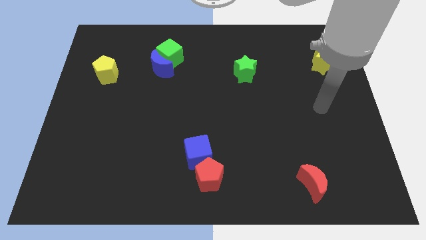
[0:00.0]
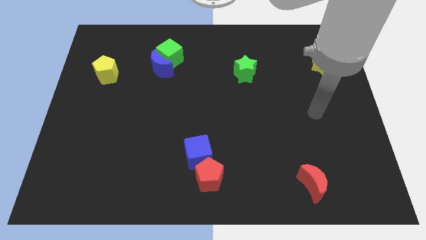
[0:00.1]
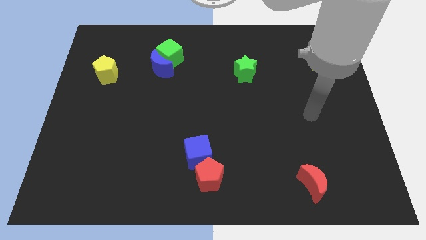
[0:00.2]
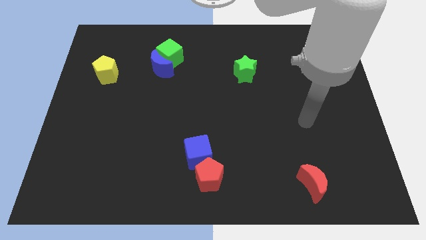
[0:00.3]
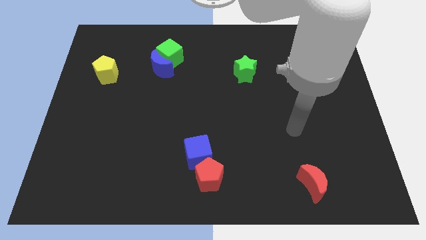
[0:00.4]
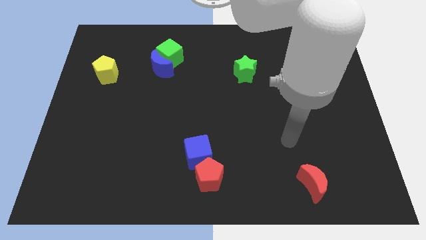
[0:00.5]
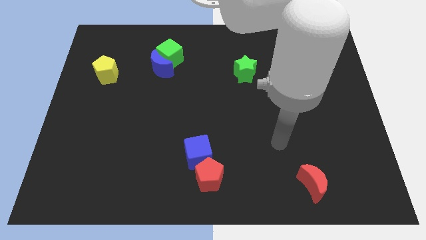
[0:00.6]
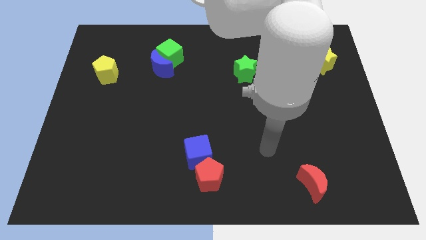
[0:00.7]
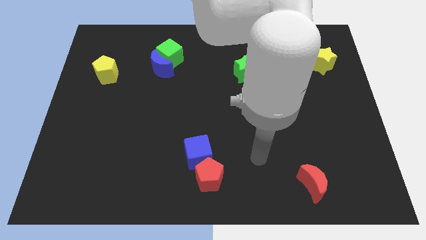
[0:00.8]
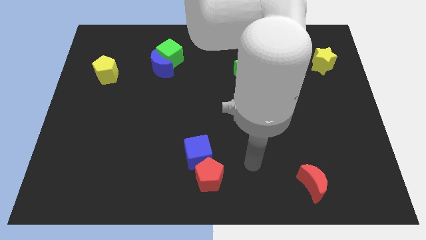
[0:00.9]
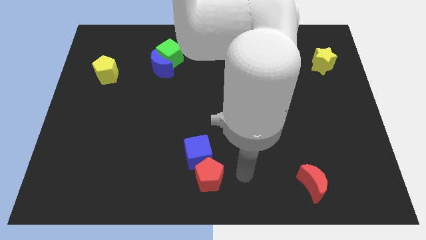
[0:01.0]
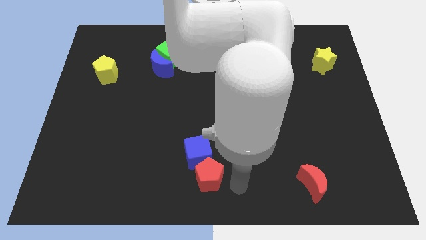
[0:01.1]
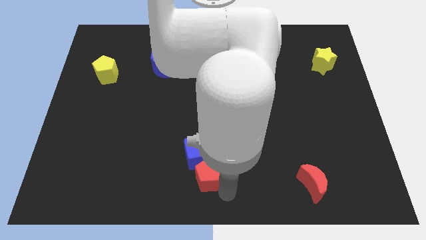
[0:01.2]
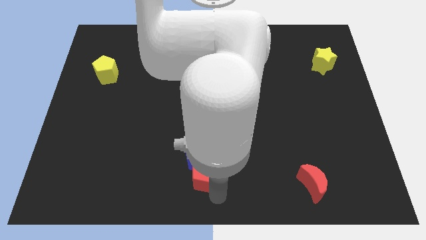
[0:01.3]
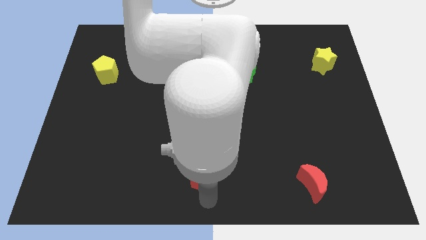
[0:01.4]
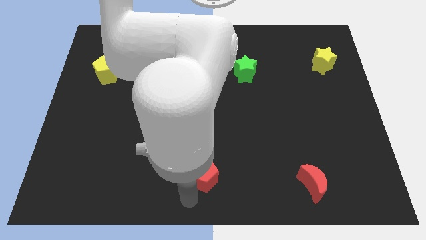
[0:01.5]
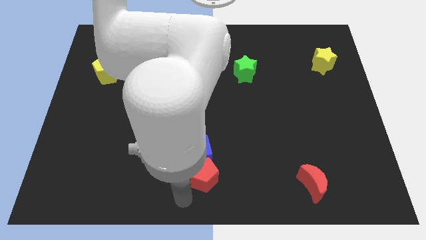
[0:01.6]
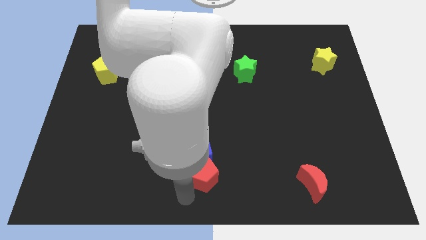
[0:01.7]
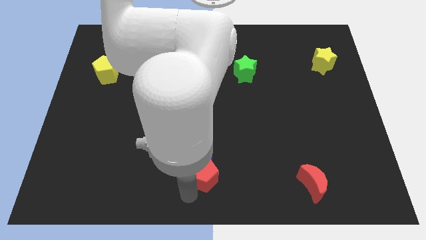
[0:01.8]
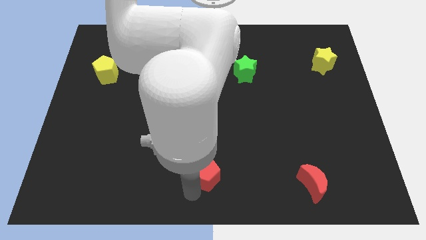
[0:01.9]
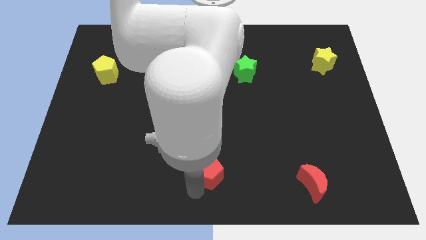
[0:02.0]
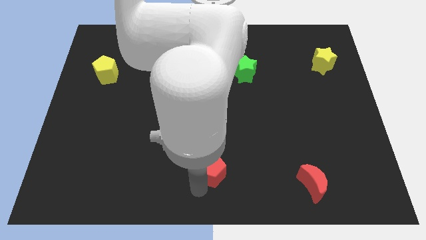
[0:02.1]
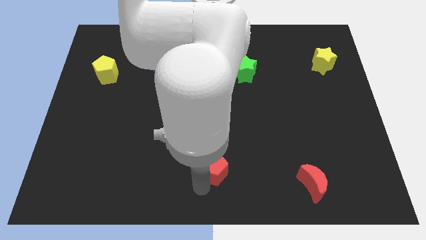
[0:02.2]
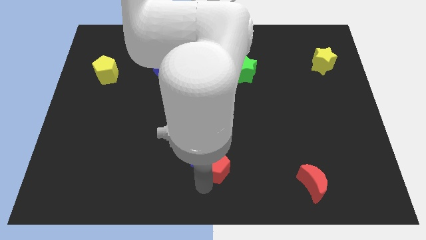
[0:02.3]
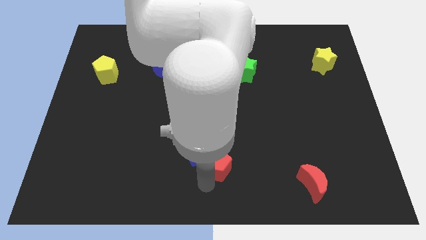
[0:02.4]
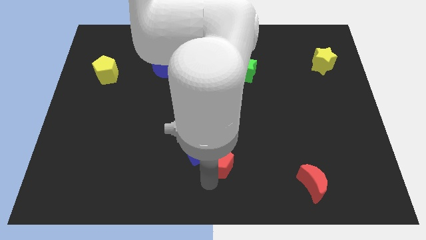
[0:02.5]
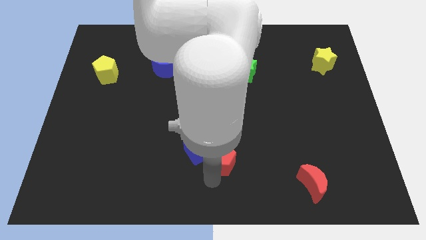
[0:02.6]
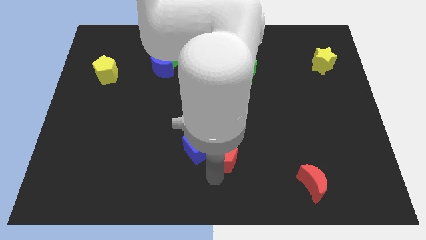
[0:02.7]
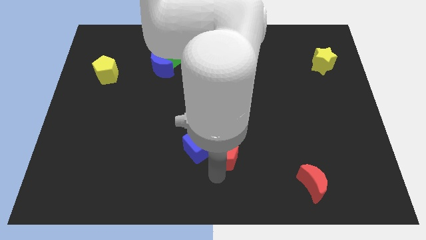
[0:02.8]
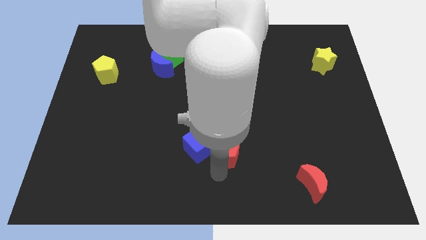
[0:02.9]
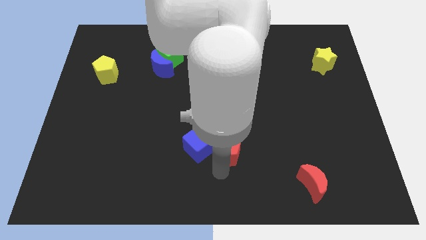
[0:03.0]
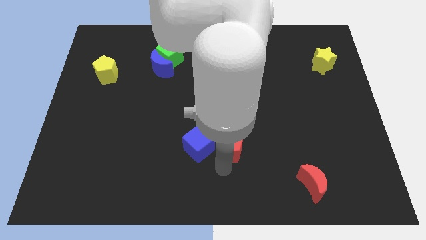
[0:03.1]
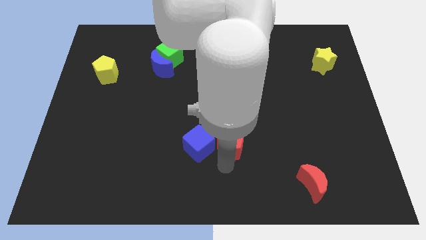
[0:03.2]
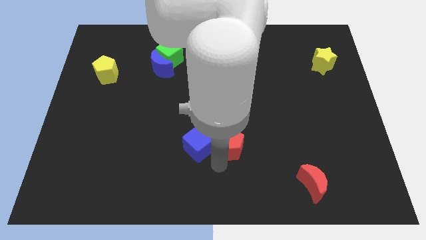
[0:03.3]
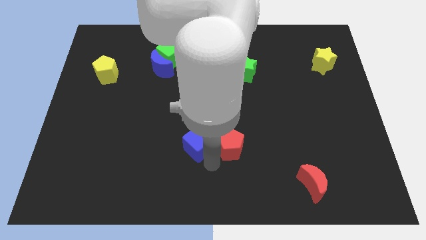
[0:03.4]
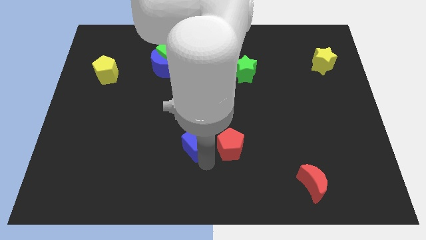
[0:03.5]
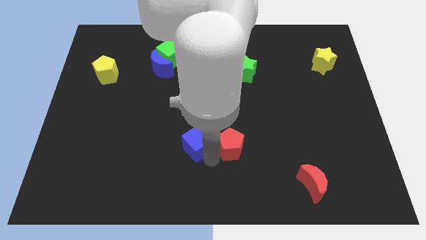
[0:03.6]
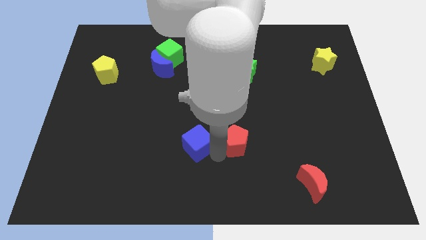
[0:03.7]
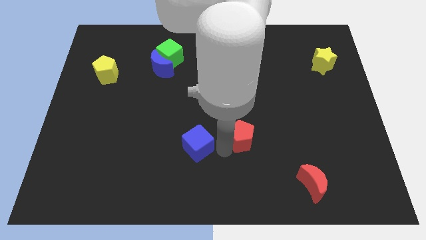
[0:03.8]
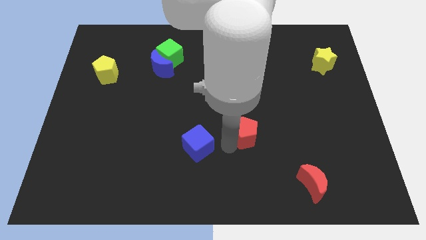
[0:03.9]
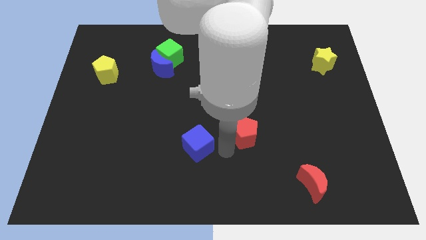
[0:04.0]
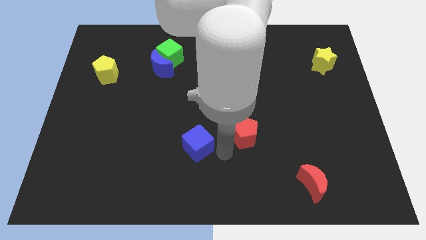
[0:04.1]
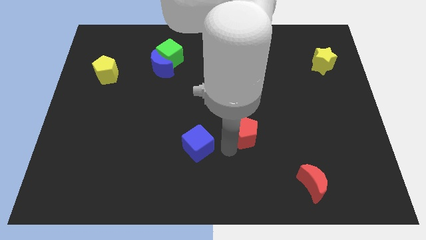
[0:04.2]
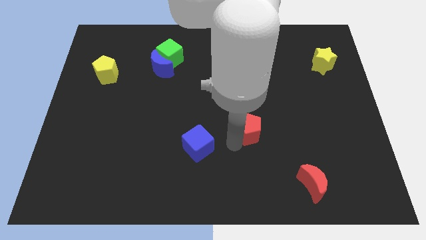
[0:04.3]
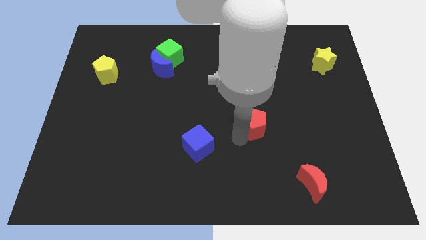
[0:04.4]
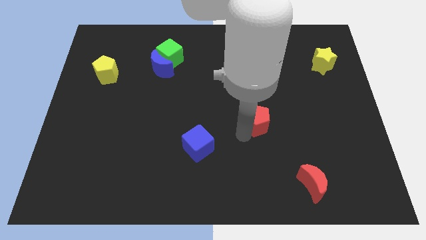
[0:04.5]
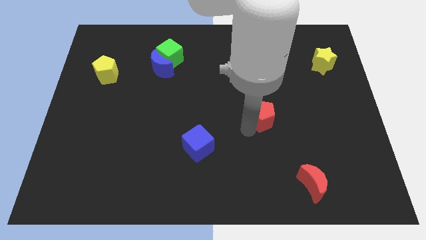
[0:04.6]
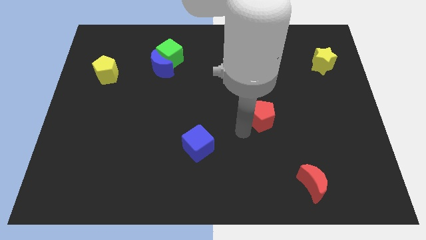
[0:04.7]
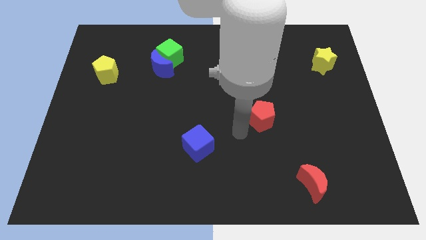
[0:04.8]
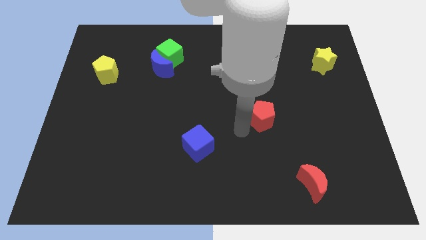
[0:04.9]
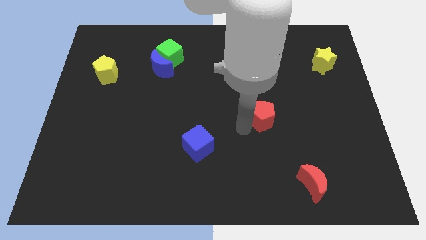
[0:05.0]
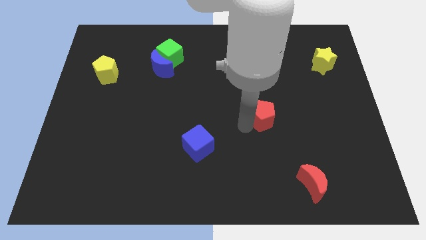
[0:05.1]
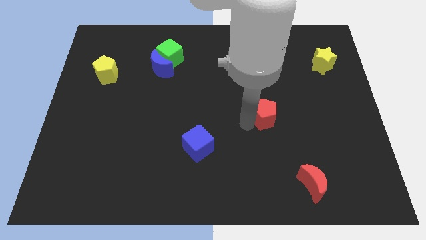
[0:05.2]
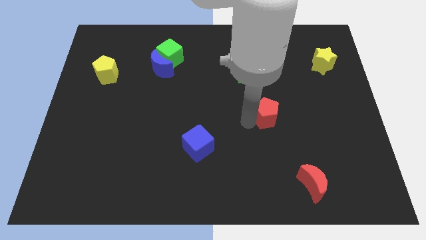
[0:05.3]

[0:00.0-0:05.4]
push the red pentagon upwards and right

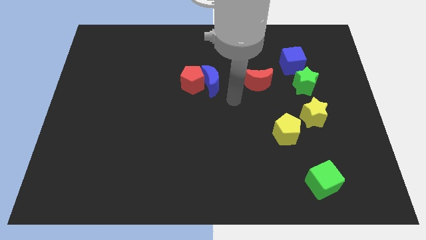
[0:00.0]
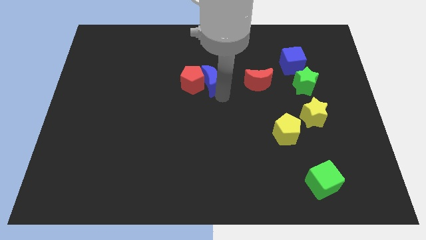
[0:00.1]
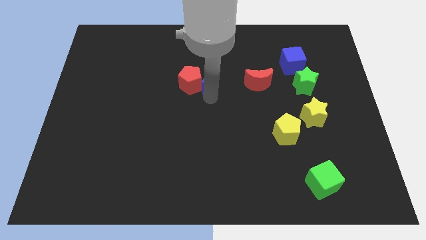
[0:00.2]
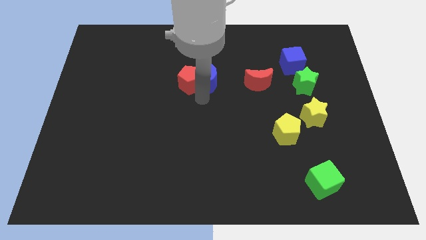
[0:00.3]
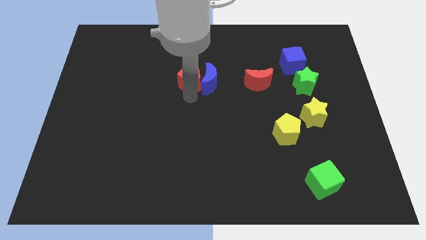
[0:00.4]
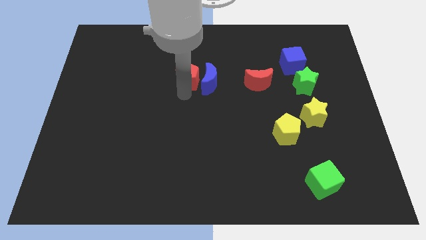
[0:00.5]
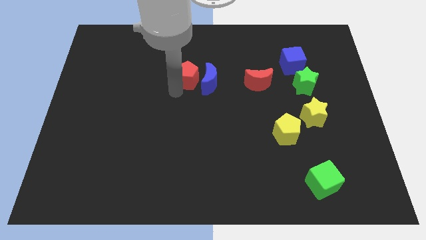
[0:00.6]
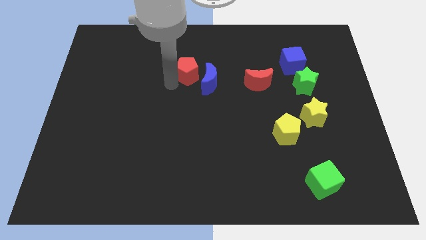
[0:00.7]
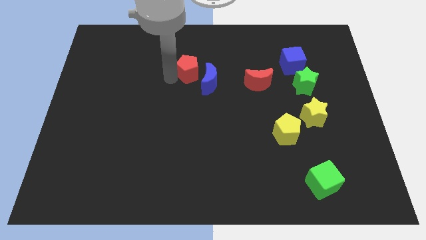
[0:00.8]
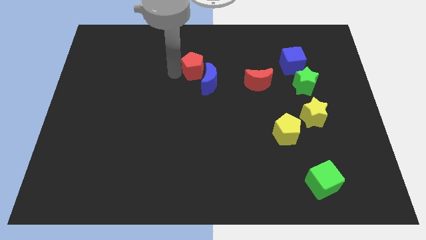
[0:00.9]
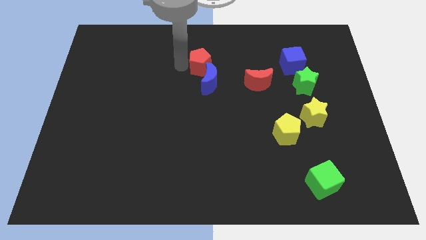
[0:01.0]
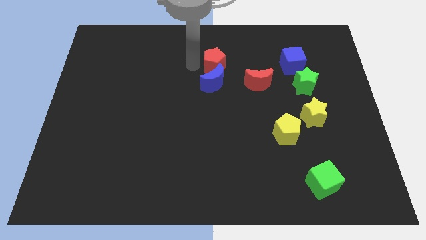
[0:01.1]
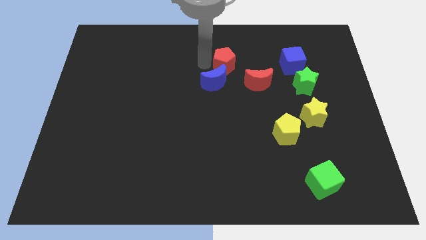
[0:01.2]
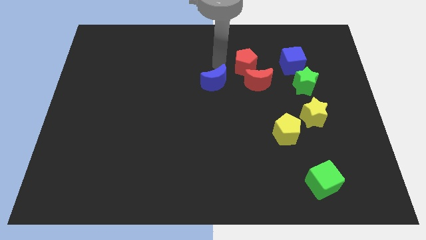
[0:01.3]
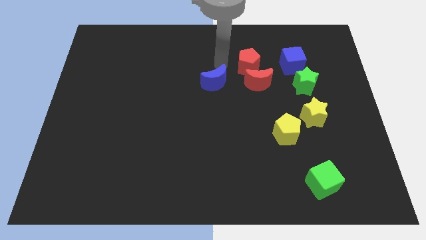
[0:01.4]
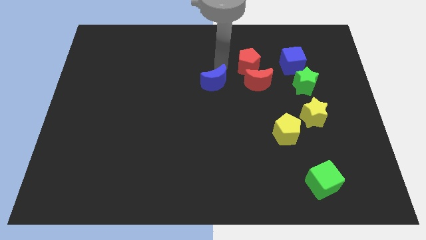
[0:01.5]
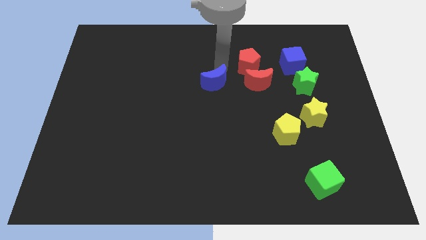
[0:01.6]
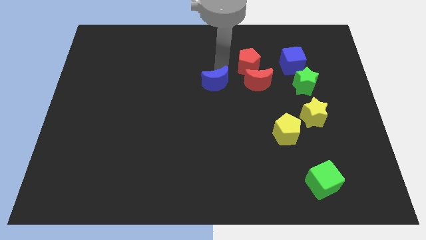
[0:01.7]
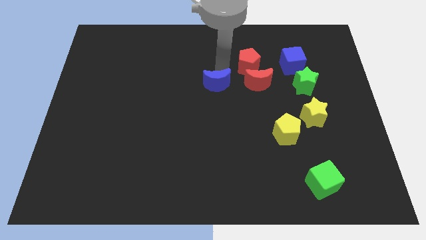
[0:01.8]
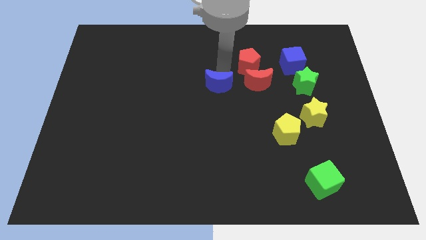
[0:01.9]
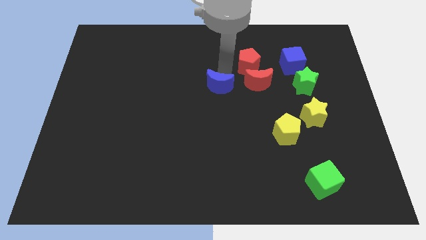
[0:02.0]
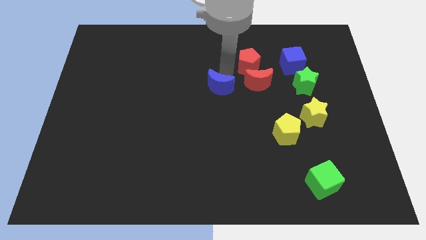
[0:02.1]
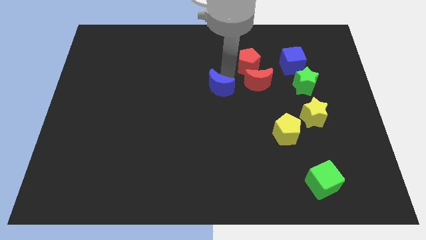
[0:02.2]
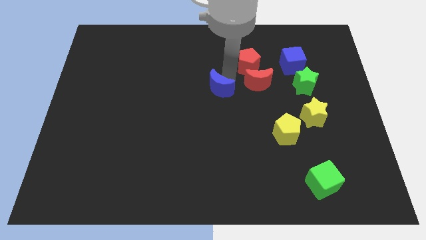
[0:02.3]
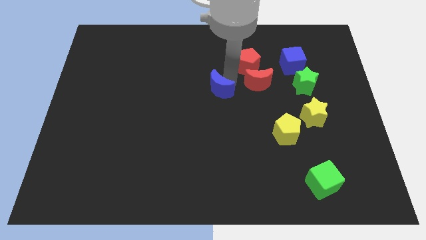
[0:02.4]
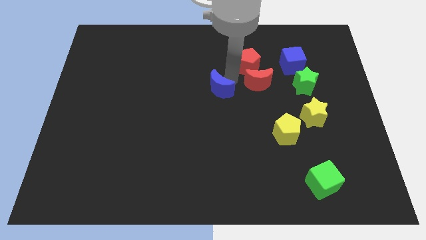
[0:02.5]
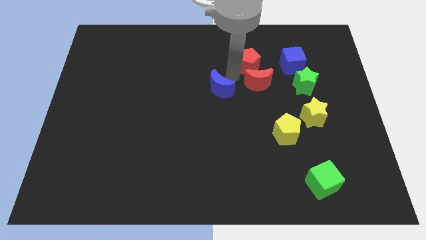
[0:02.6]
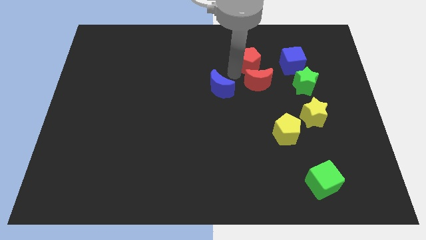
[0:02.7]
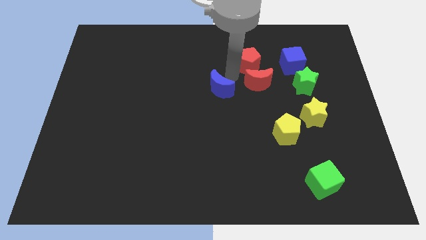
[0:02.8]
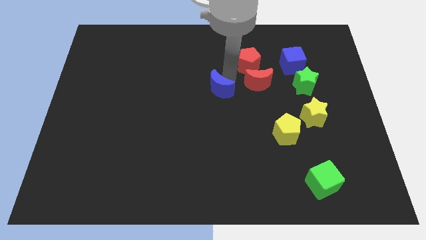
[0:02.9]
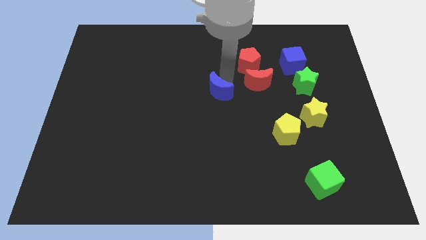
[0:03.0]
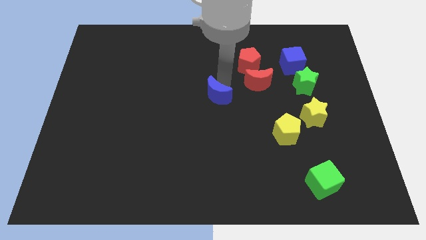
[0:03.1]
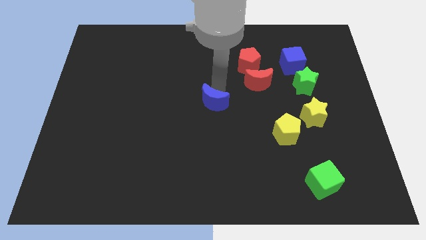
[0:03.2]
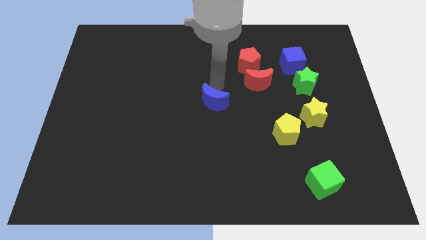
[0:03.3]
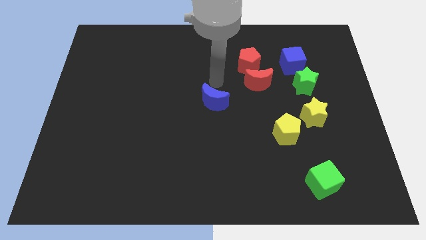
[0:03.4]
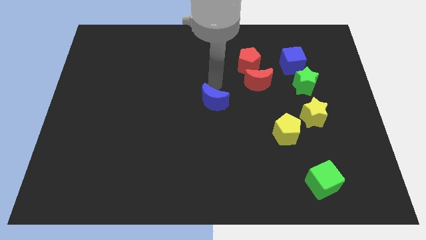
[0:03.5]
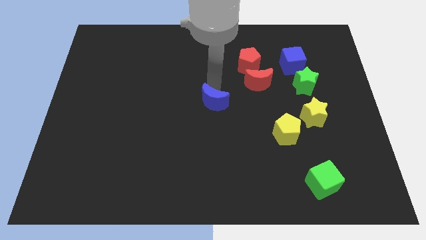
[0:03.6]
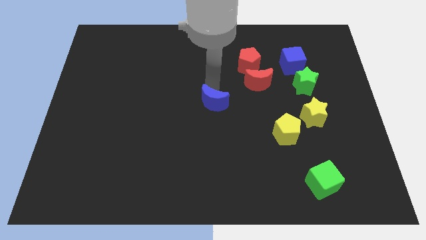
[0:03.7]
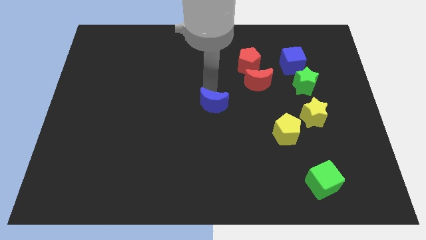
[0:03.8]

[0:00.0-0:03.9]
move the blue moon down somewhat
